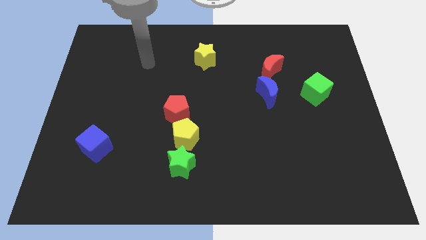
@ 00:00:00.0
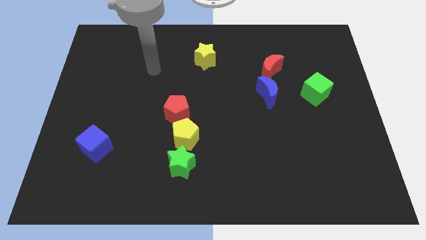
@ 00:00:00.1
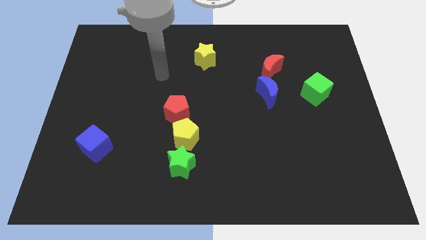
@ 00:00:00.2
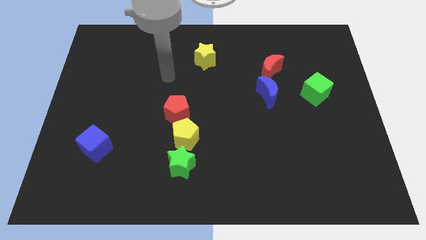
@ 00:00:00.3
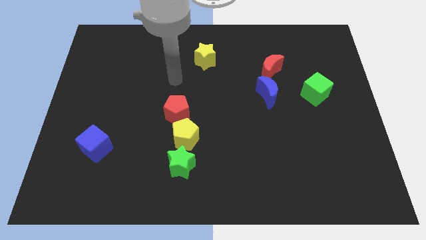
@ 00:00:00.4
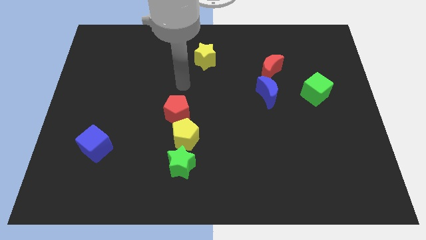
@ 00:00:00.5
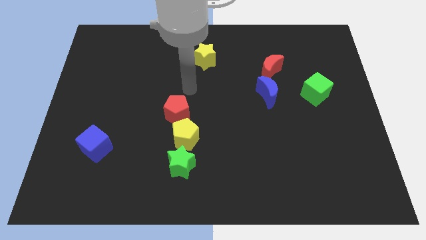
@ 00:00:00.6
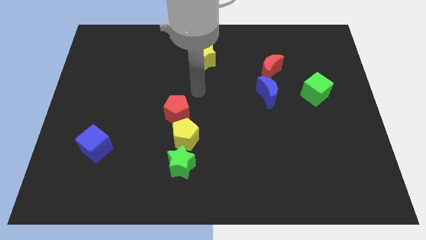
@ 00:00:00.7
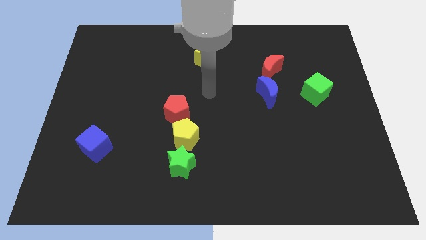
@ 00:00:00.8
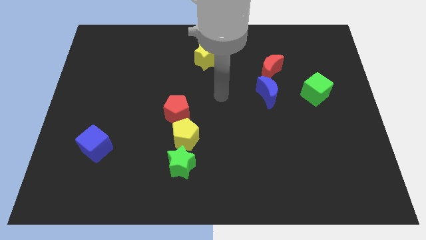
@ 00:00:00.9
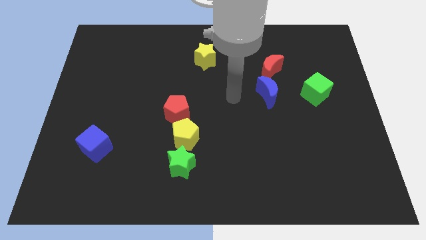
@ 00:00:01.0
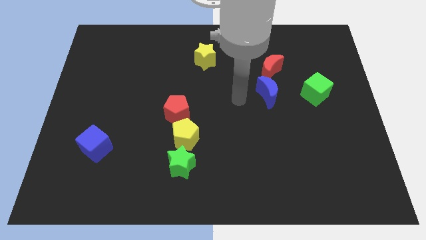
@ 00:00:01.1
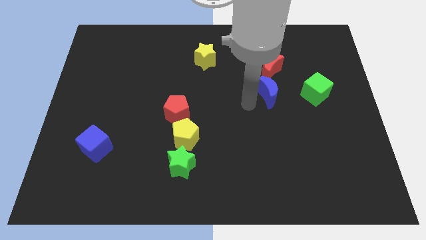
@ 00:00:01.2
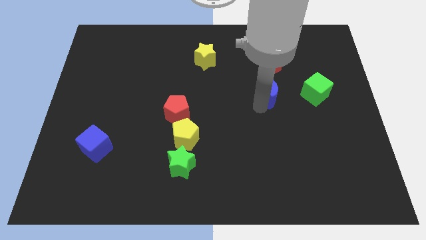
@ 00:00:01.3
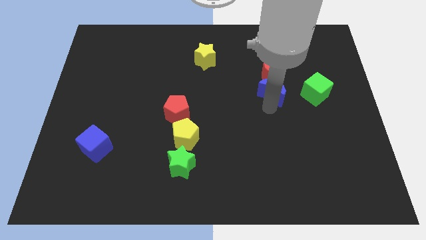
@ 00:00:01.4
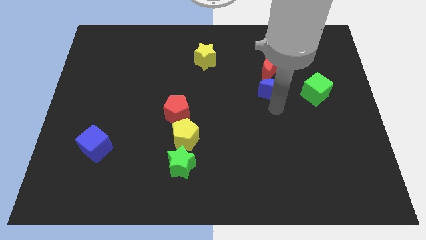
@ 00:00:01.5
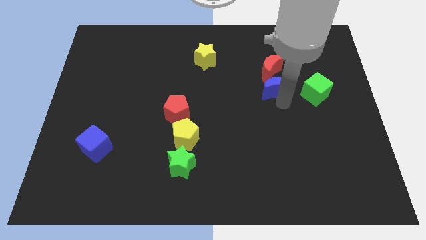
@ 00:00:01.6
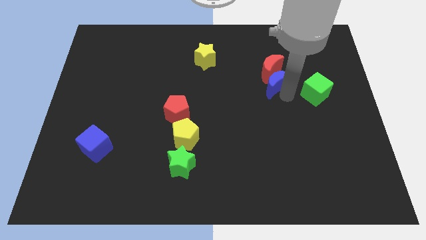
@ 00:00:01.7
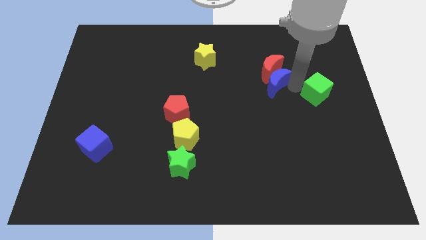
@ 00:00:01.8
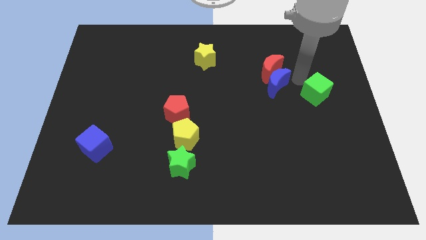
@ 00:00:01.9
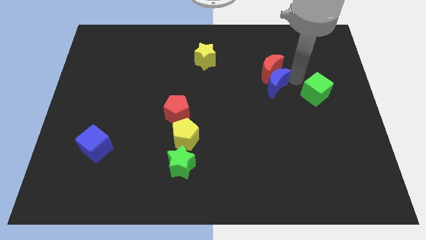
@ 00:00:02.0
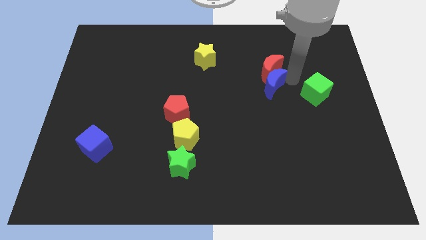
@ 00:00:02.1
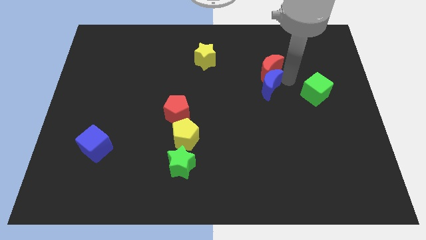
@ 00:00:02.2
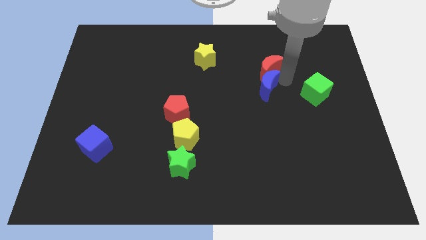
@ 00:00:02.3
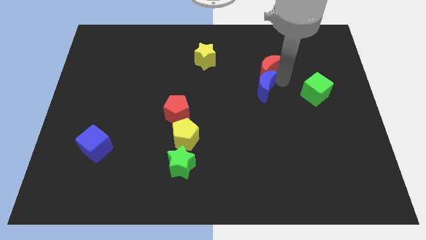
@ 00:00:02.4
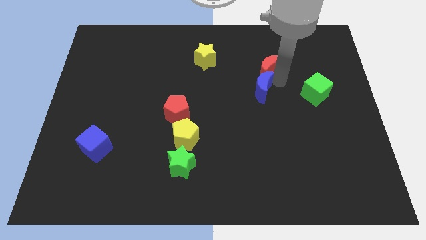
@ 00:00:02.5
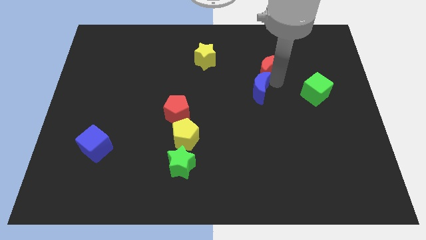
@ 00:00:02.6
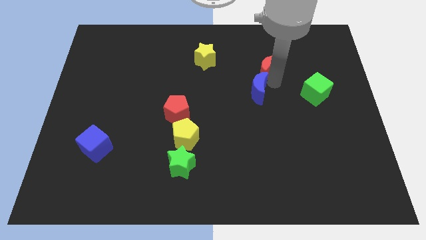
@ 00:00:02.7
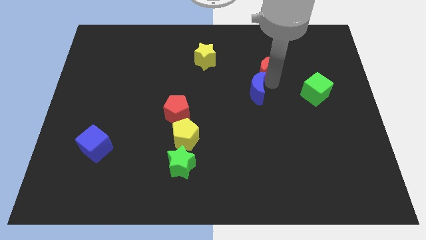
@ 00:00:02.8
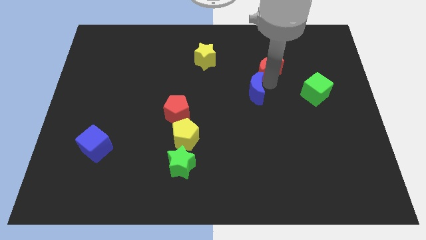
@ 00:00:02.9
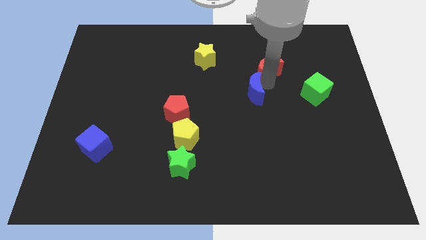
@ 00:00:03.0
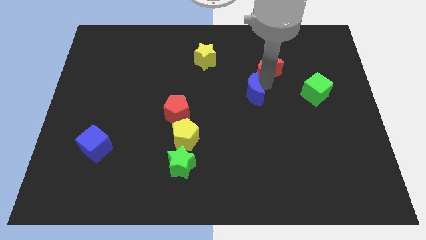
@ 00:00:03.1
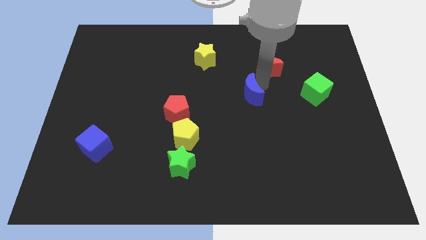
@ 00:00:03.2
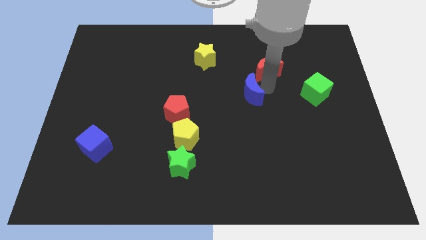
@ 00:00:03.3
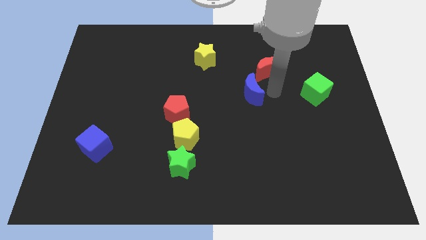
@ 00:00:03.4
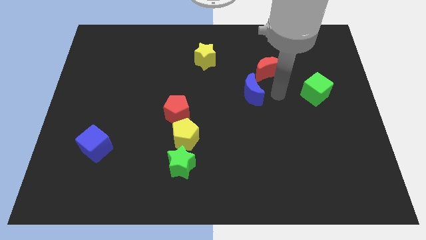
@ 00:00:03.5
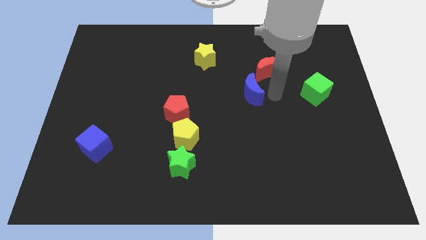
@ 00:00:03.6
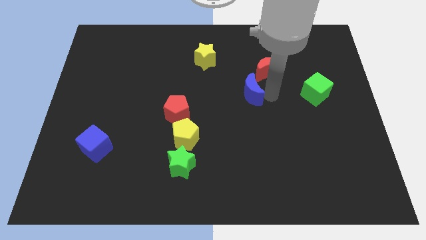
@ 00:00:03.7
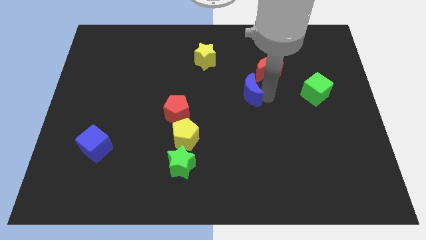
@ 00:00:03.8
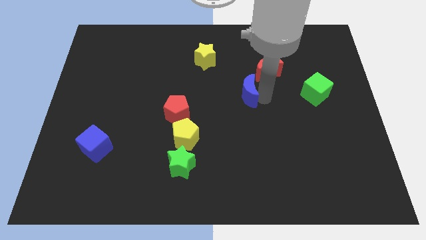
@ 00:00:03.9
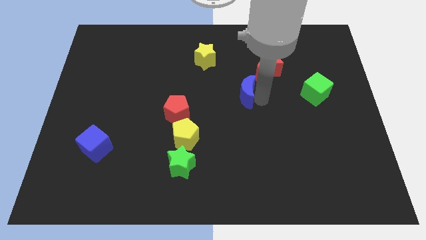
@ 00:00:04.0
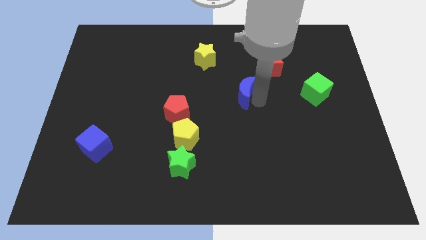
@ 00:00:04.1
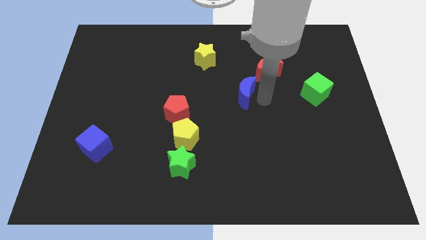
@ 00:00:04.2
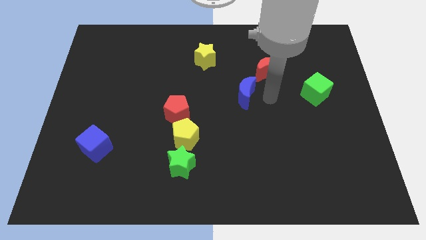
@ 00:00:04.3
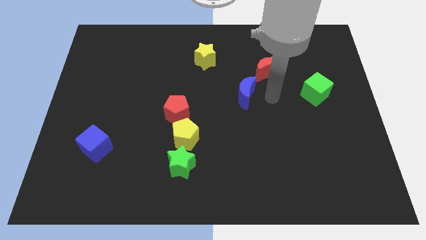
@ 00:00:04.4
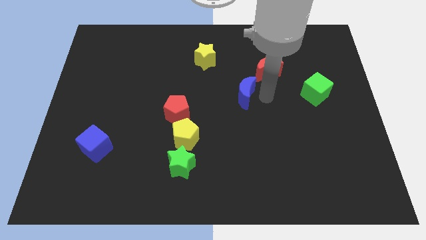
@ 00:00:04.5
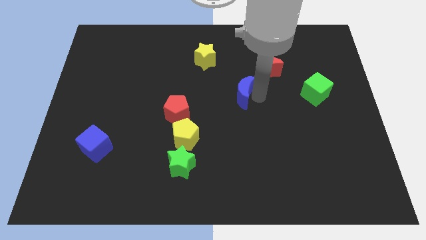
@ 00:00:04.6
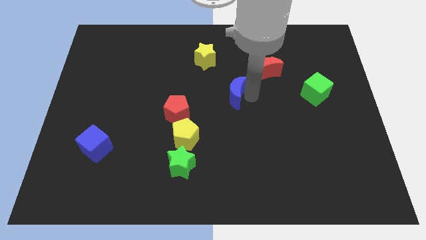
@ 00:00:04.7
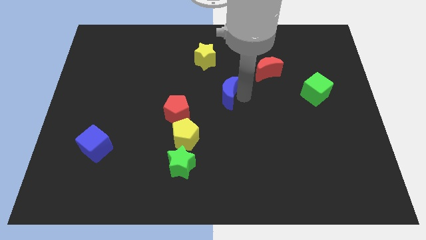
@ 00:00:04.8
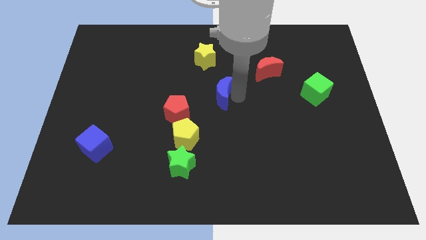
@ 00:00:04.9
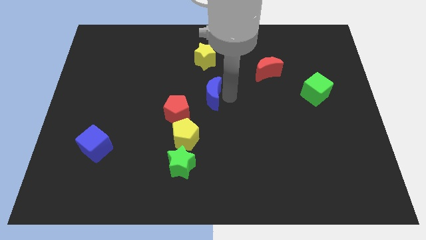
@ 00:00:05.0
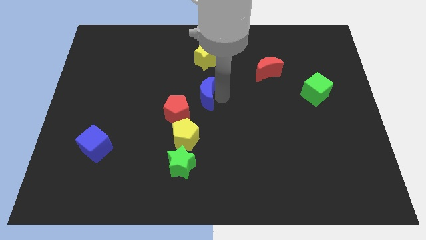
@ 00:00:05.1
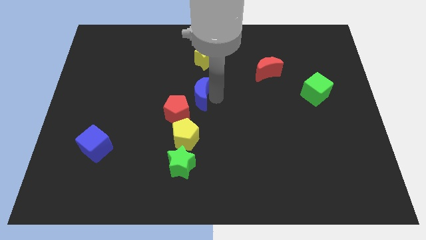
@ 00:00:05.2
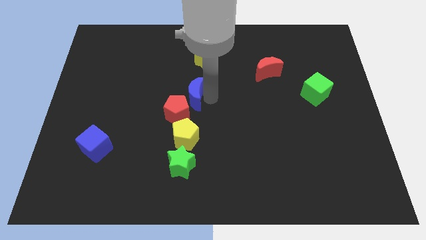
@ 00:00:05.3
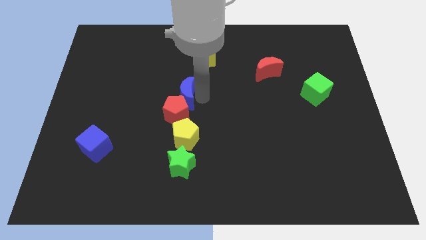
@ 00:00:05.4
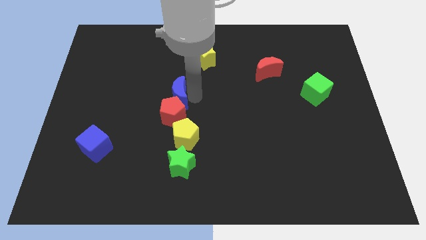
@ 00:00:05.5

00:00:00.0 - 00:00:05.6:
slide the blue moon to the left

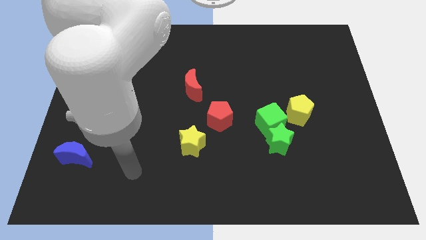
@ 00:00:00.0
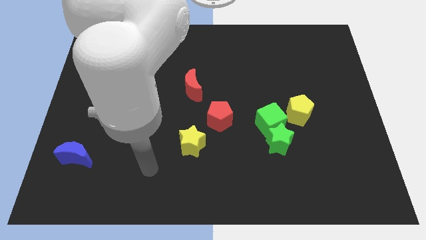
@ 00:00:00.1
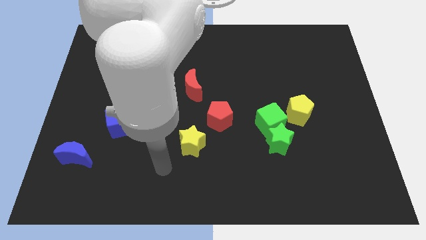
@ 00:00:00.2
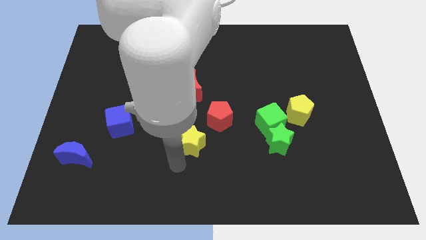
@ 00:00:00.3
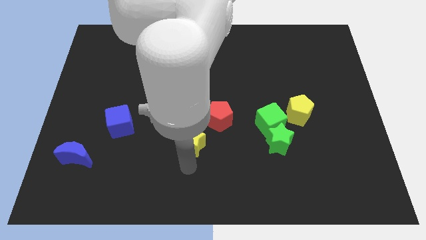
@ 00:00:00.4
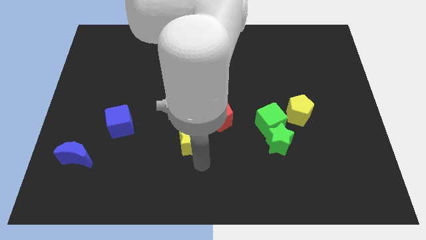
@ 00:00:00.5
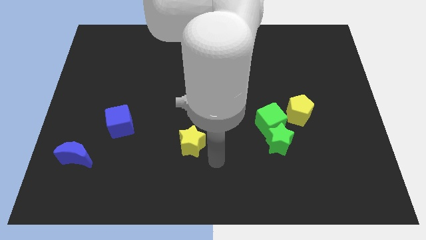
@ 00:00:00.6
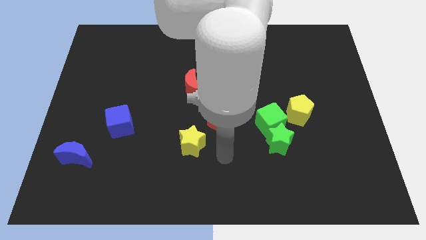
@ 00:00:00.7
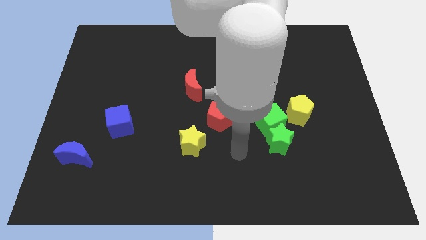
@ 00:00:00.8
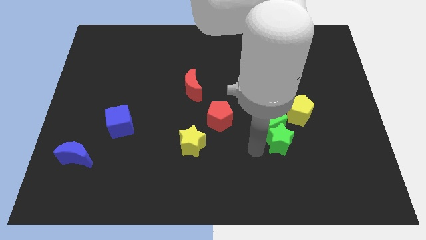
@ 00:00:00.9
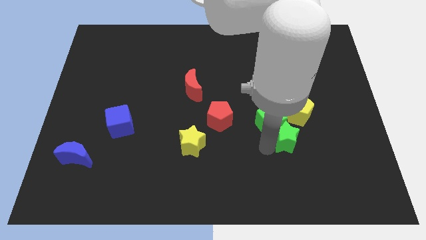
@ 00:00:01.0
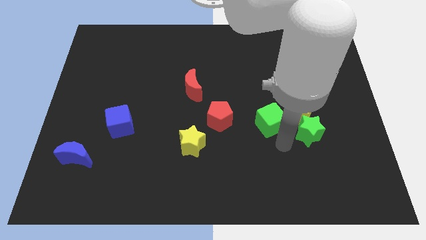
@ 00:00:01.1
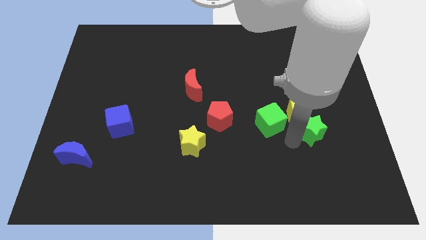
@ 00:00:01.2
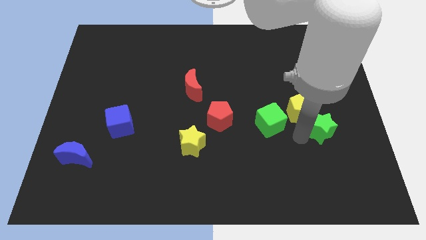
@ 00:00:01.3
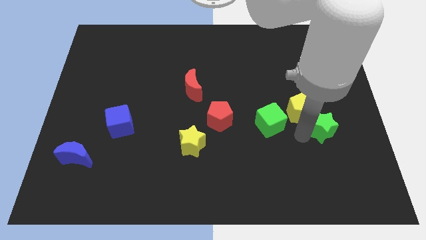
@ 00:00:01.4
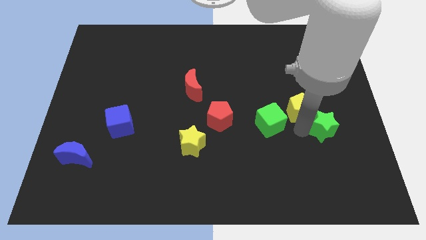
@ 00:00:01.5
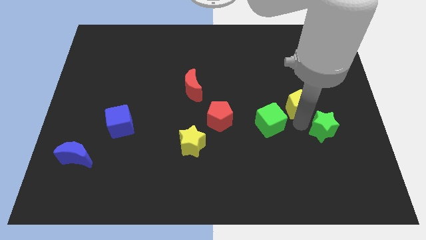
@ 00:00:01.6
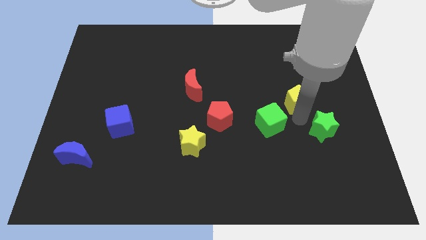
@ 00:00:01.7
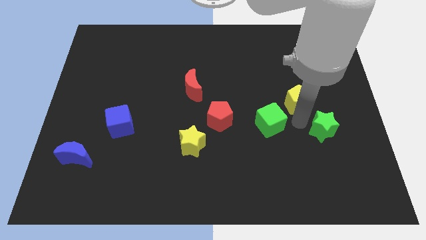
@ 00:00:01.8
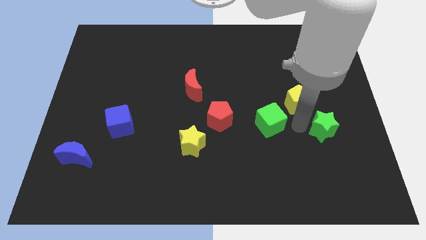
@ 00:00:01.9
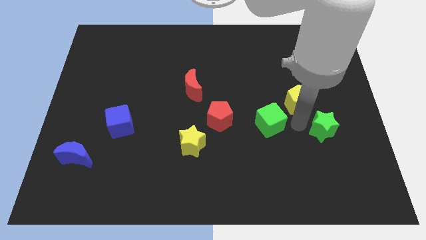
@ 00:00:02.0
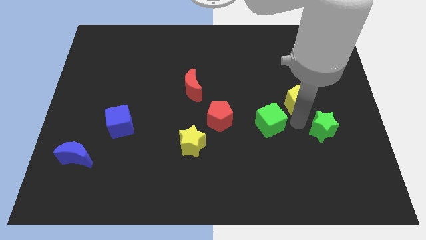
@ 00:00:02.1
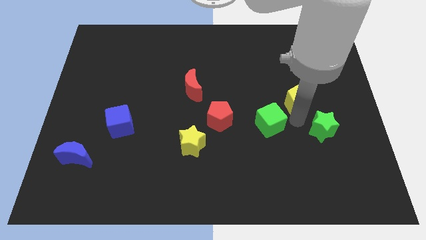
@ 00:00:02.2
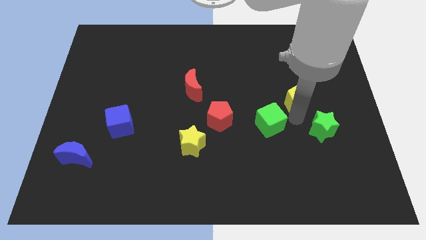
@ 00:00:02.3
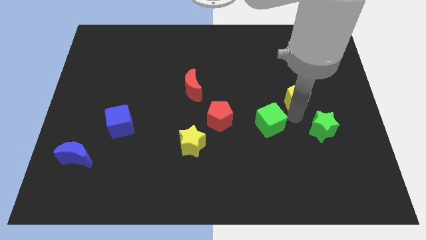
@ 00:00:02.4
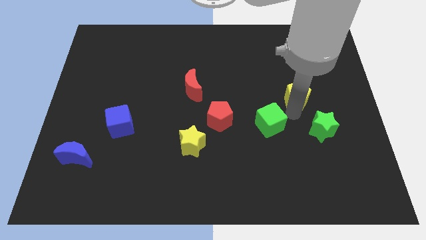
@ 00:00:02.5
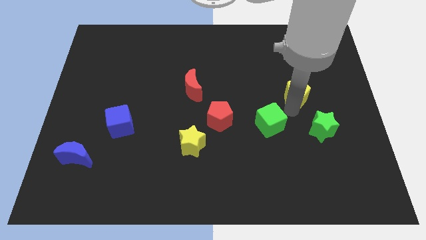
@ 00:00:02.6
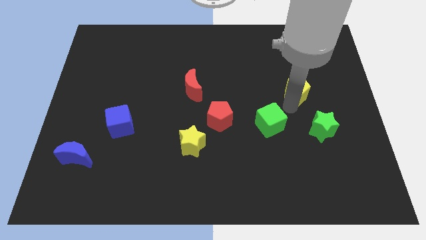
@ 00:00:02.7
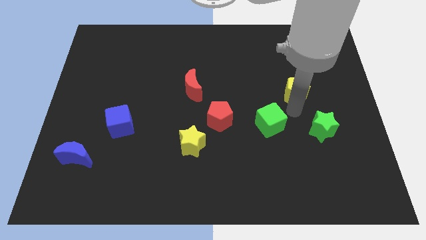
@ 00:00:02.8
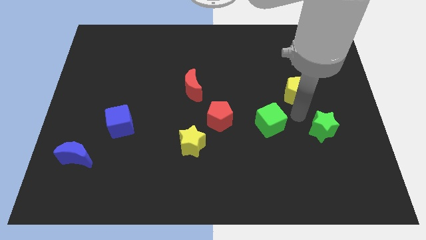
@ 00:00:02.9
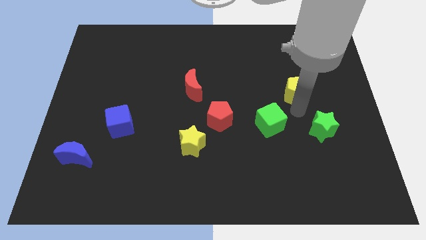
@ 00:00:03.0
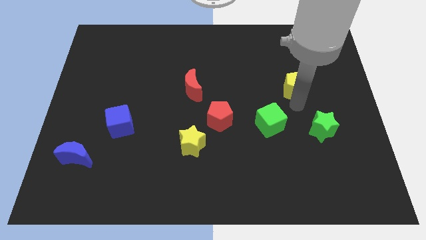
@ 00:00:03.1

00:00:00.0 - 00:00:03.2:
slightly slide the yellow pentagon up
